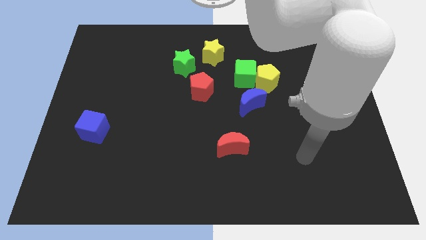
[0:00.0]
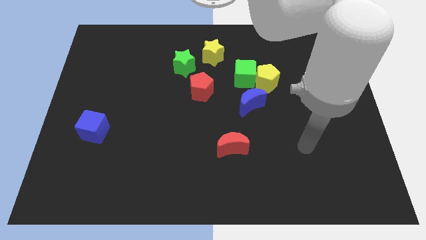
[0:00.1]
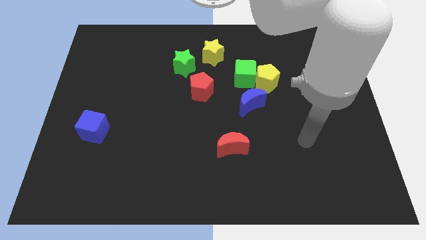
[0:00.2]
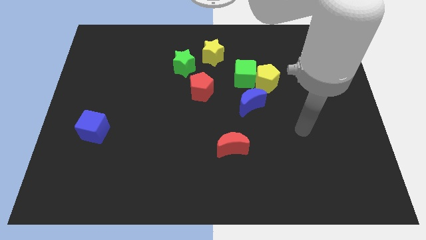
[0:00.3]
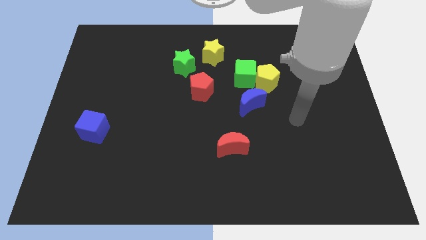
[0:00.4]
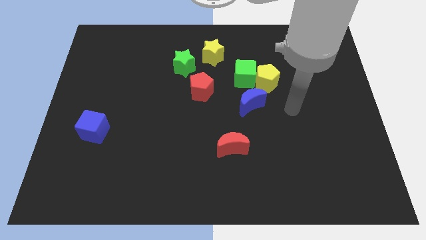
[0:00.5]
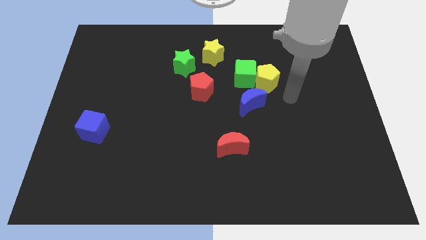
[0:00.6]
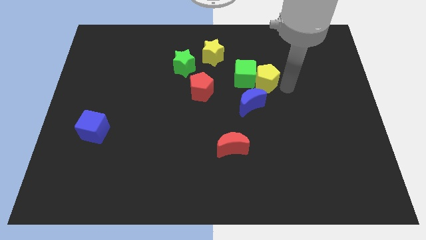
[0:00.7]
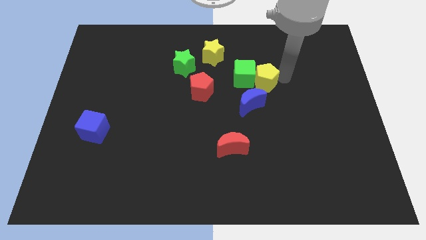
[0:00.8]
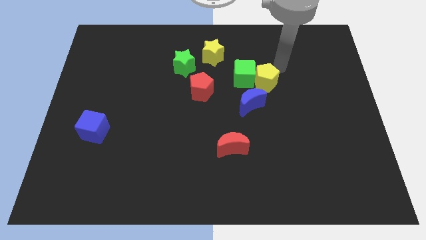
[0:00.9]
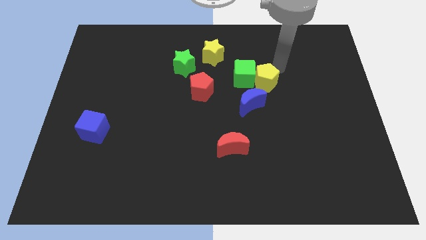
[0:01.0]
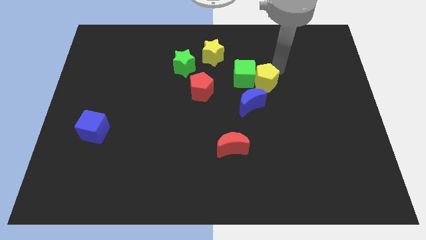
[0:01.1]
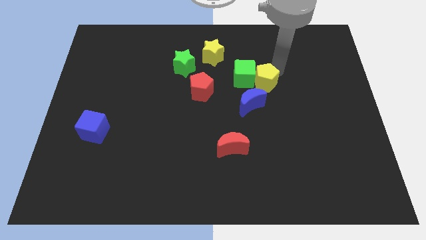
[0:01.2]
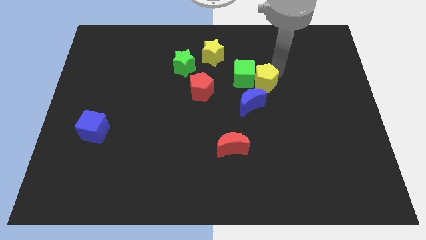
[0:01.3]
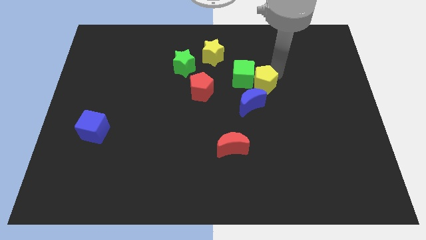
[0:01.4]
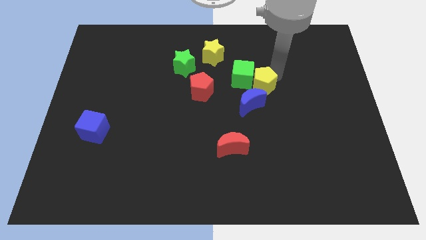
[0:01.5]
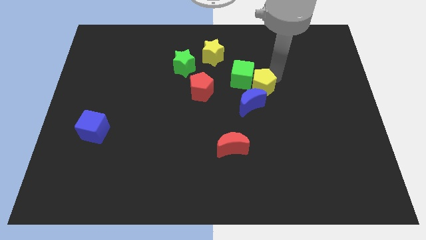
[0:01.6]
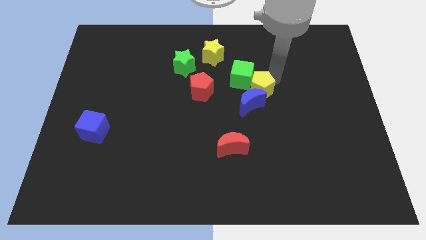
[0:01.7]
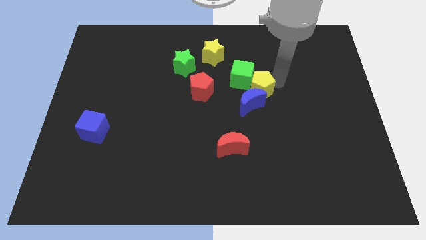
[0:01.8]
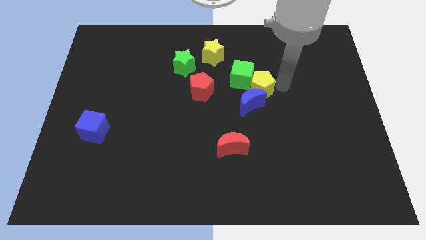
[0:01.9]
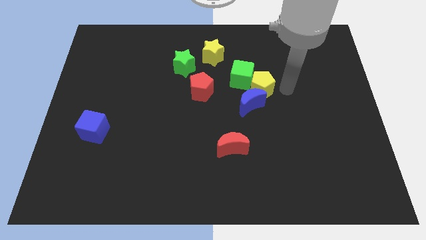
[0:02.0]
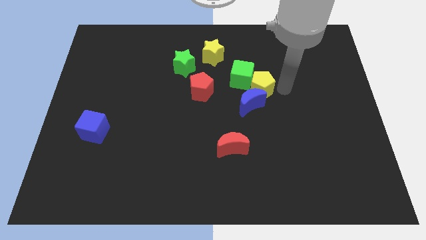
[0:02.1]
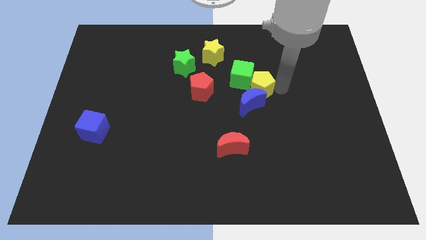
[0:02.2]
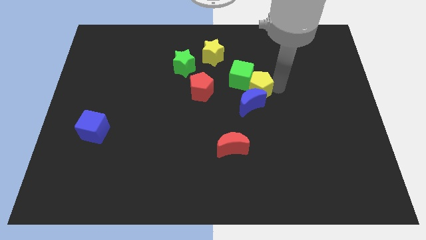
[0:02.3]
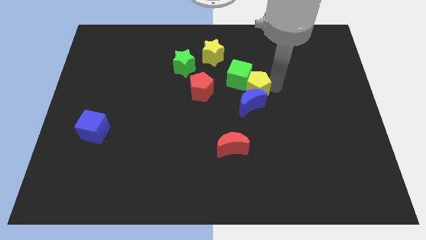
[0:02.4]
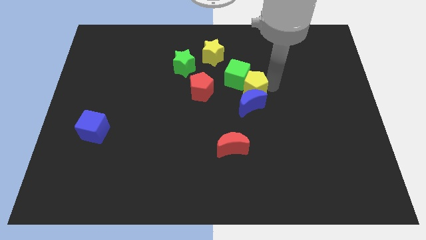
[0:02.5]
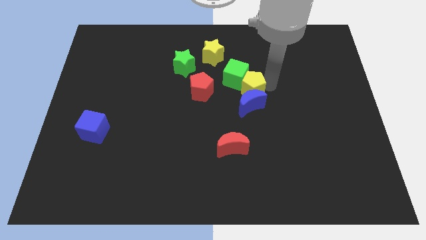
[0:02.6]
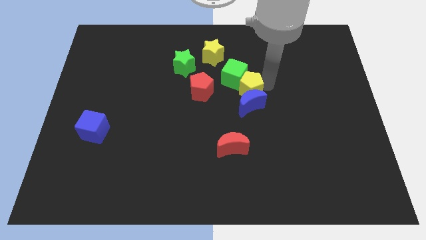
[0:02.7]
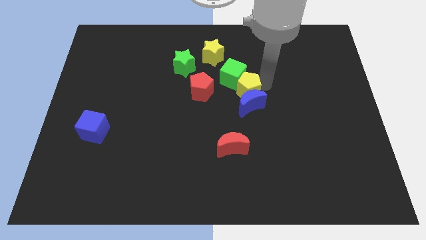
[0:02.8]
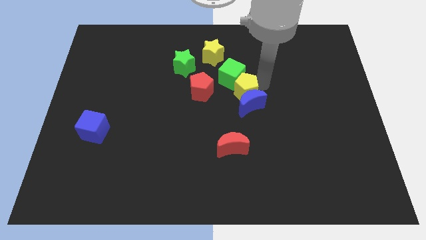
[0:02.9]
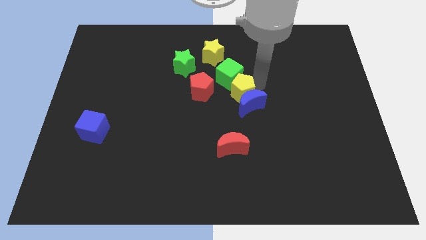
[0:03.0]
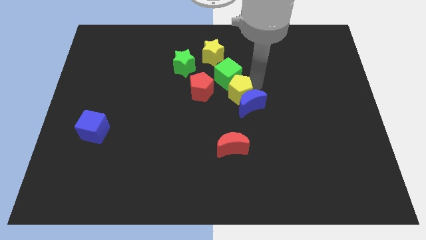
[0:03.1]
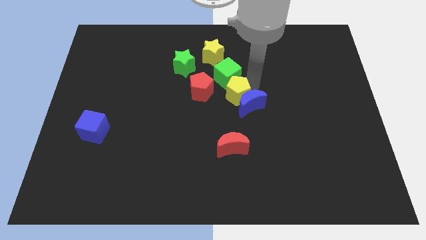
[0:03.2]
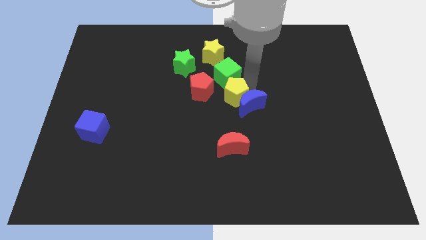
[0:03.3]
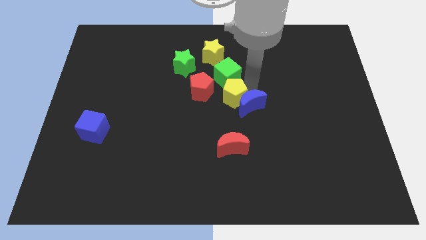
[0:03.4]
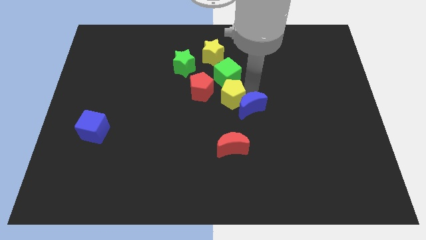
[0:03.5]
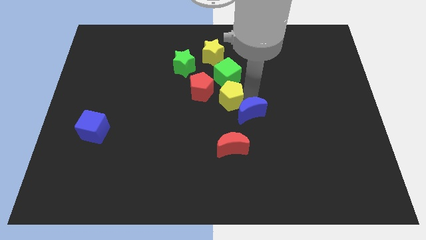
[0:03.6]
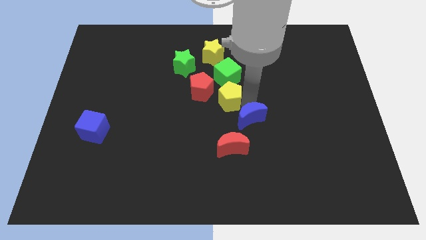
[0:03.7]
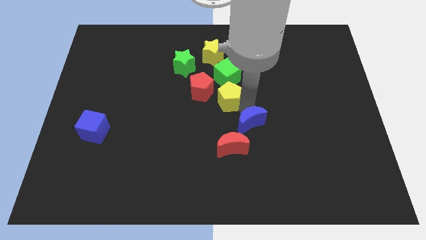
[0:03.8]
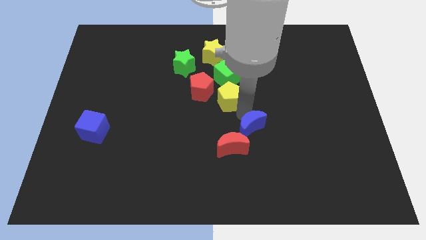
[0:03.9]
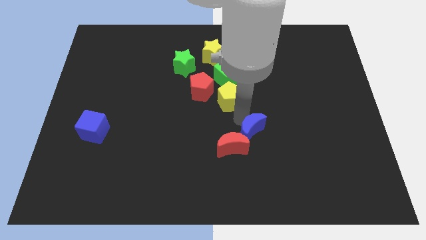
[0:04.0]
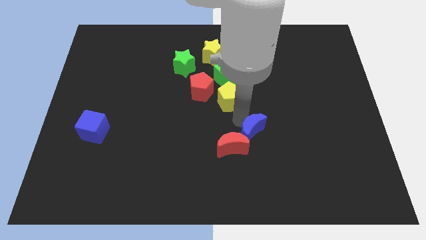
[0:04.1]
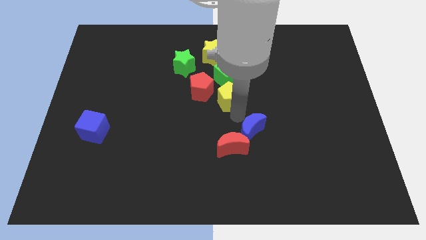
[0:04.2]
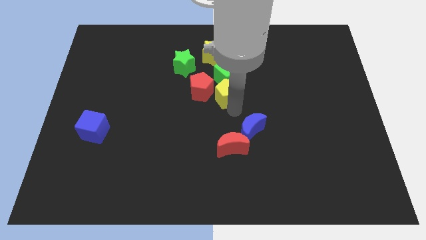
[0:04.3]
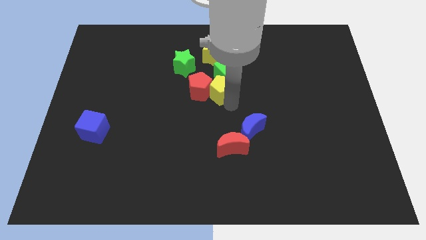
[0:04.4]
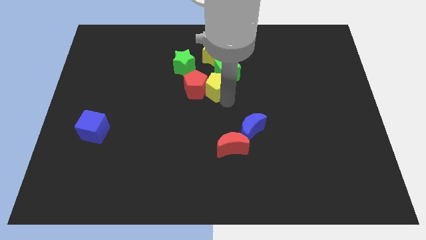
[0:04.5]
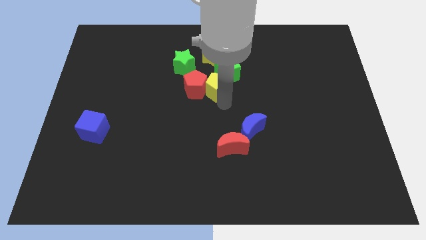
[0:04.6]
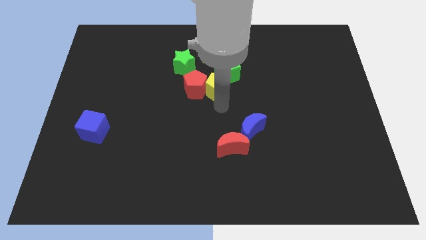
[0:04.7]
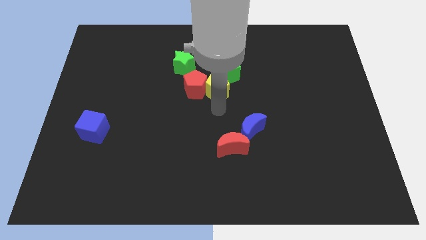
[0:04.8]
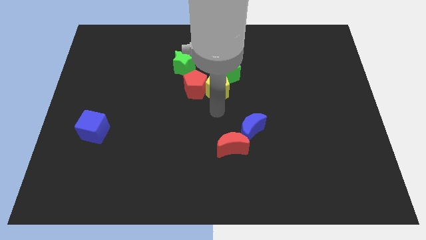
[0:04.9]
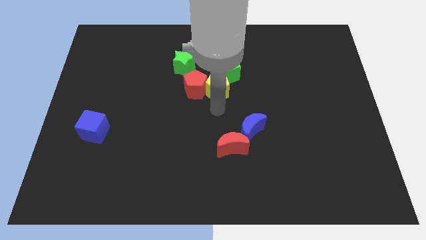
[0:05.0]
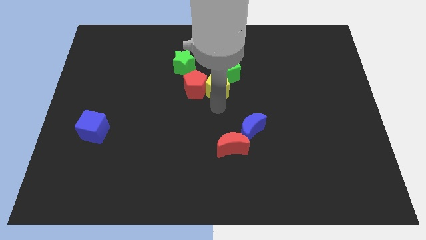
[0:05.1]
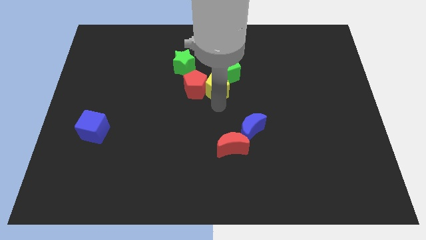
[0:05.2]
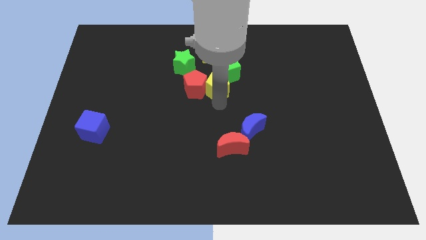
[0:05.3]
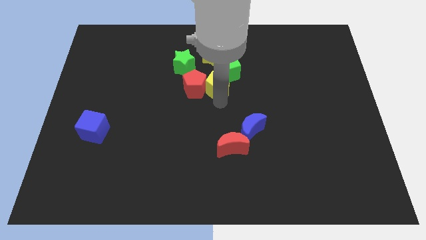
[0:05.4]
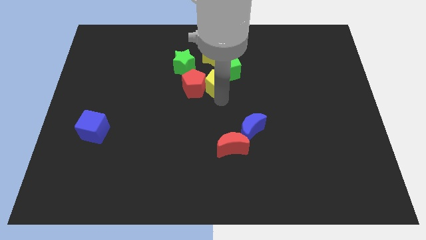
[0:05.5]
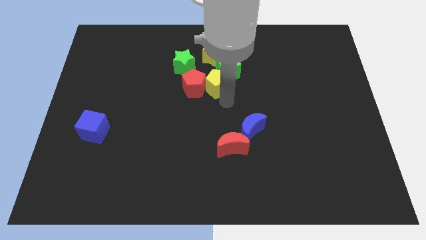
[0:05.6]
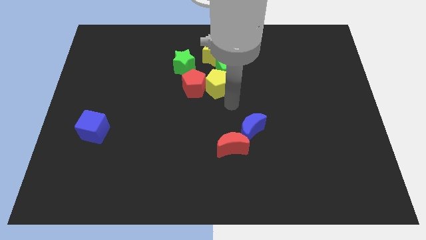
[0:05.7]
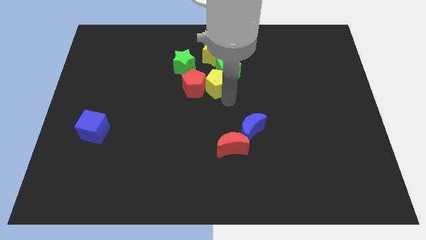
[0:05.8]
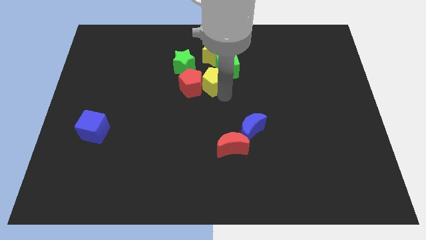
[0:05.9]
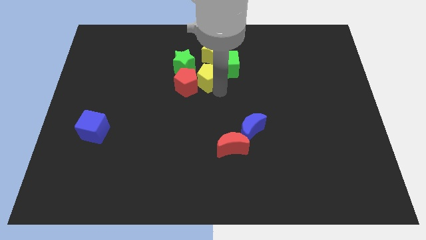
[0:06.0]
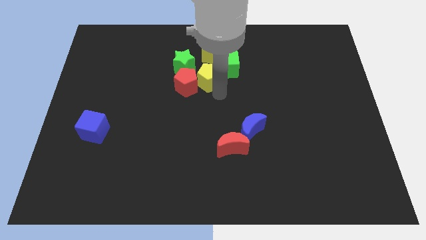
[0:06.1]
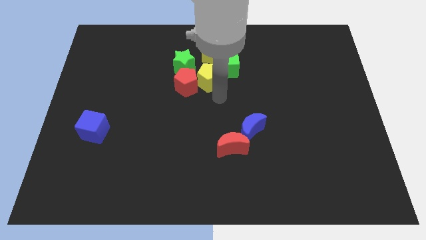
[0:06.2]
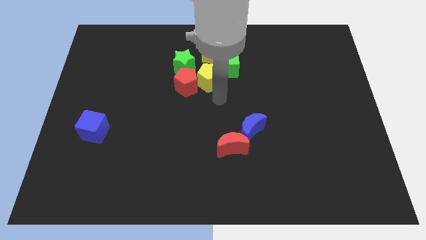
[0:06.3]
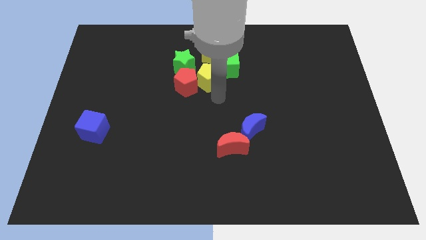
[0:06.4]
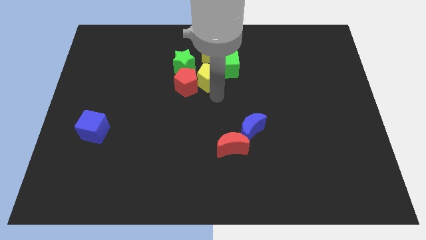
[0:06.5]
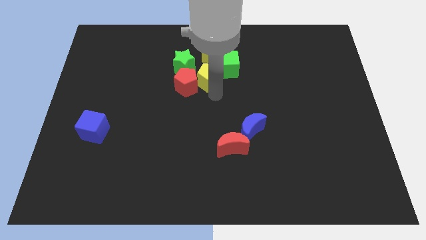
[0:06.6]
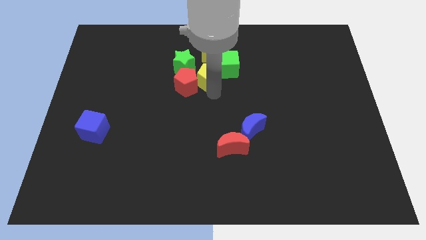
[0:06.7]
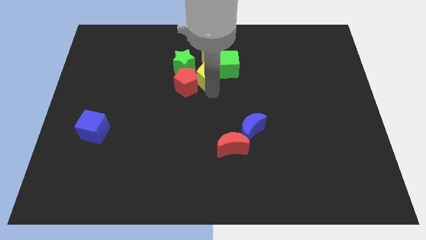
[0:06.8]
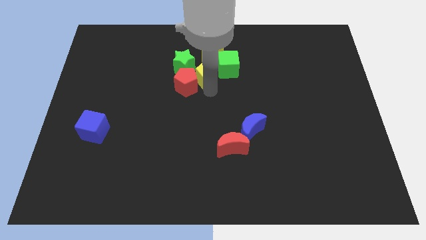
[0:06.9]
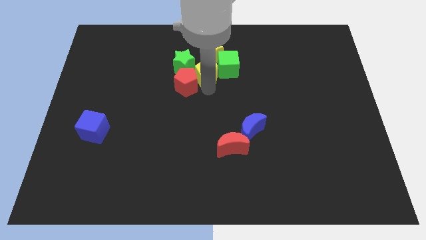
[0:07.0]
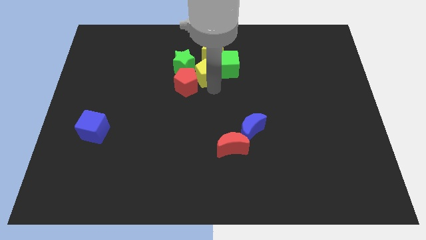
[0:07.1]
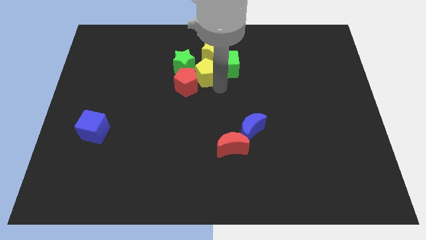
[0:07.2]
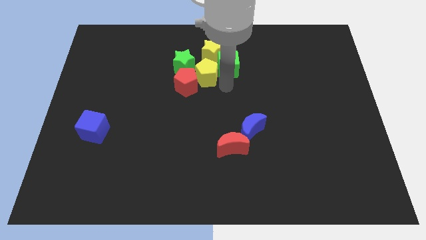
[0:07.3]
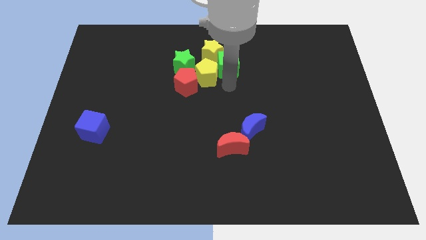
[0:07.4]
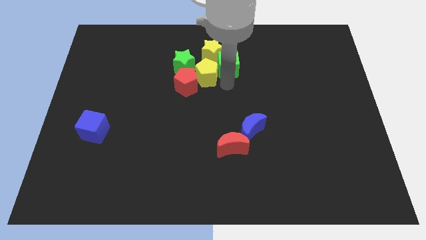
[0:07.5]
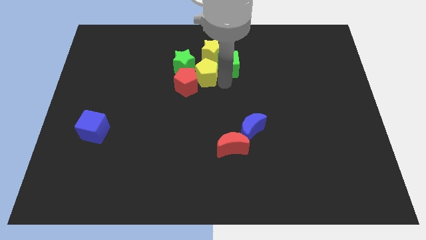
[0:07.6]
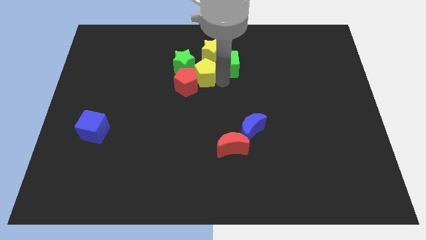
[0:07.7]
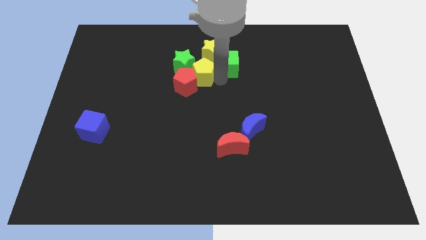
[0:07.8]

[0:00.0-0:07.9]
put the yellow pentagon to the green star
